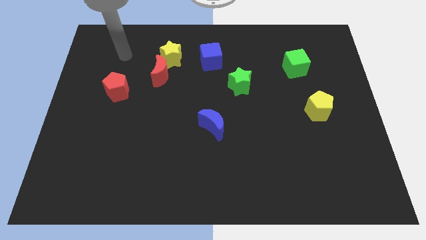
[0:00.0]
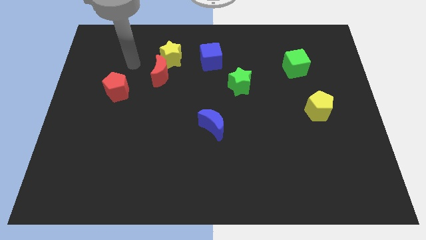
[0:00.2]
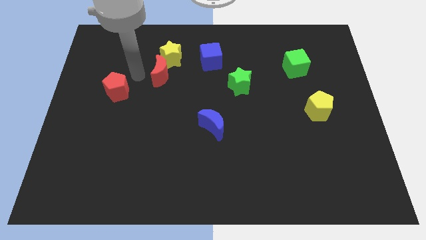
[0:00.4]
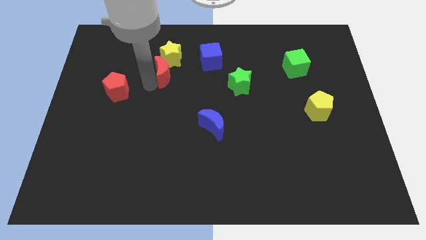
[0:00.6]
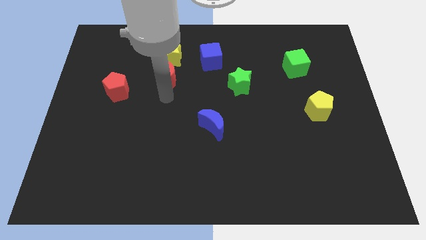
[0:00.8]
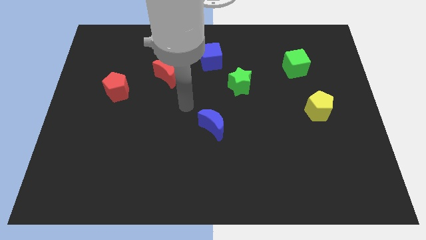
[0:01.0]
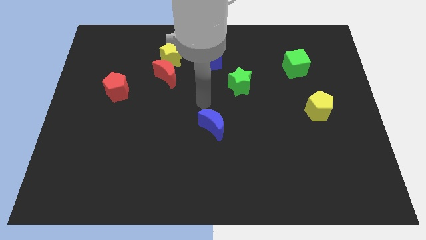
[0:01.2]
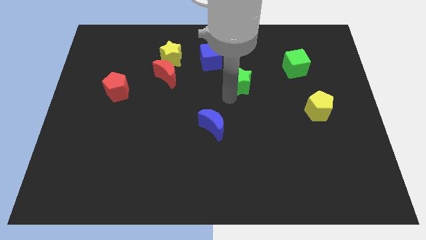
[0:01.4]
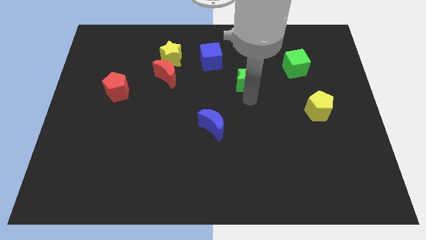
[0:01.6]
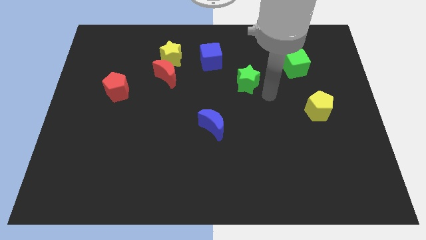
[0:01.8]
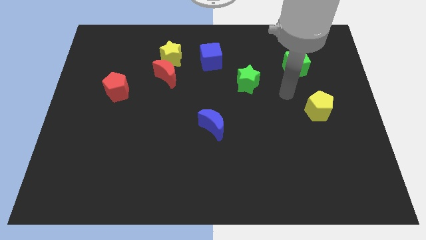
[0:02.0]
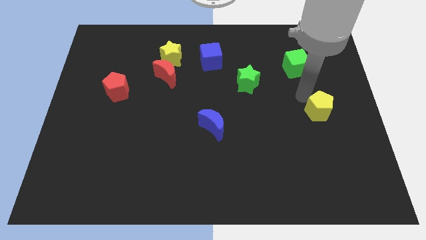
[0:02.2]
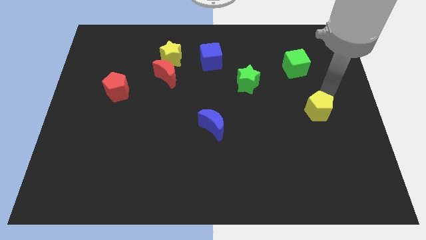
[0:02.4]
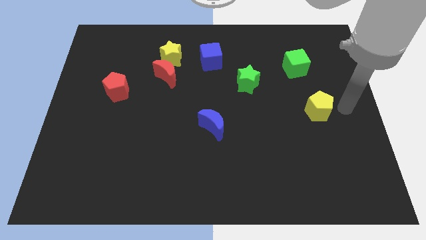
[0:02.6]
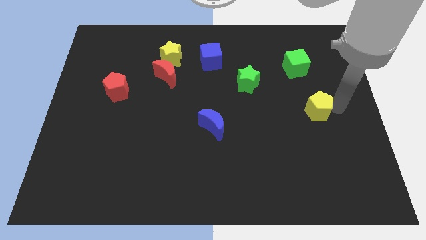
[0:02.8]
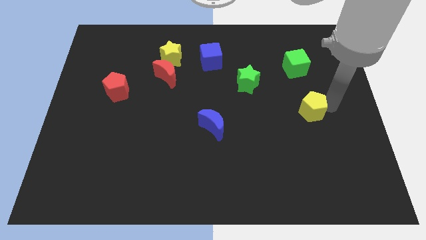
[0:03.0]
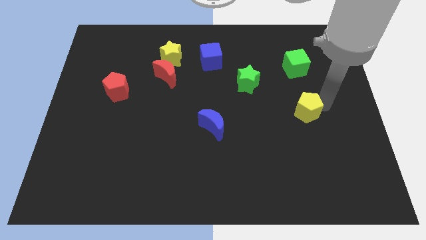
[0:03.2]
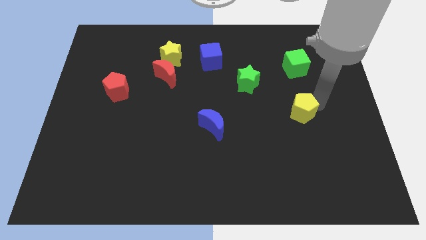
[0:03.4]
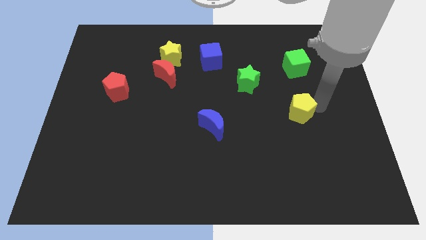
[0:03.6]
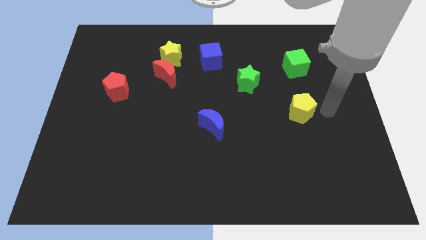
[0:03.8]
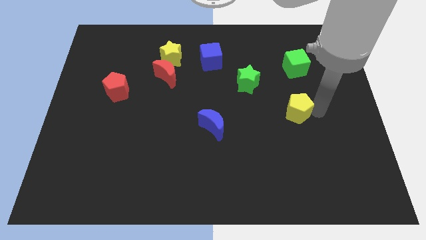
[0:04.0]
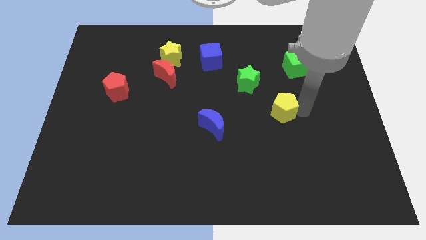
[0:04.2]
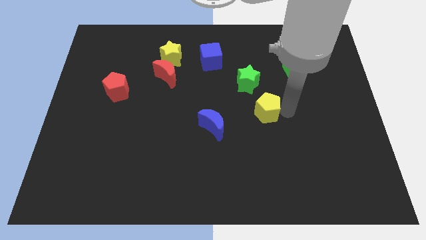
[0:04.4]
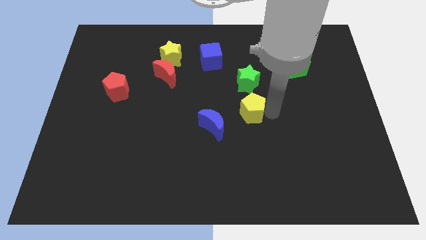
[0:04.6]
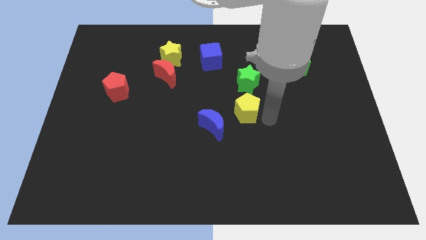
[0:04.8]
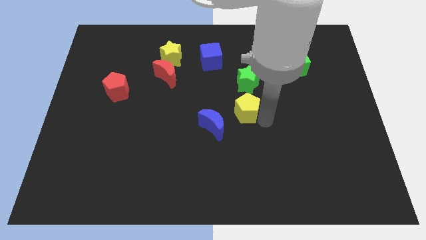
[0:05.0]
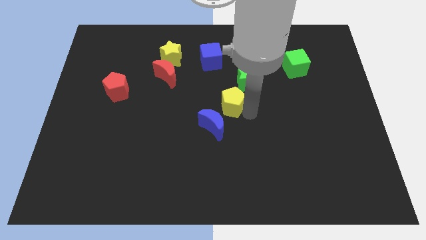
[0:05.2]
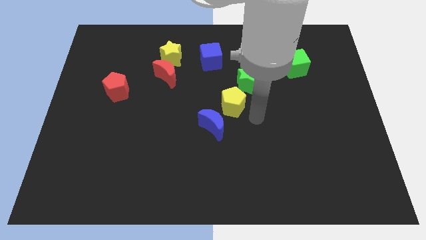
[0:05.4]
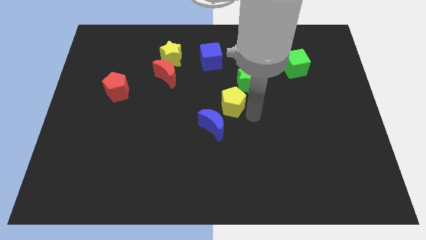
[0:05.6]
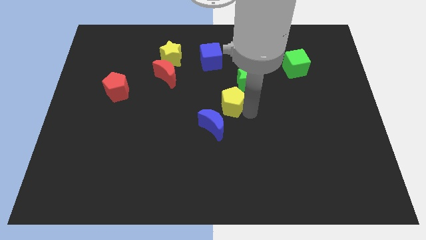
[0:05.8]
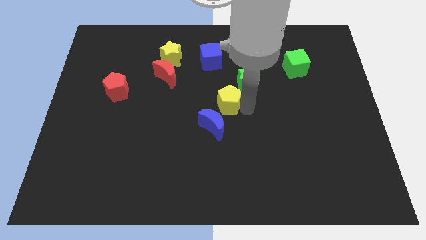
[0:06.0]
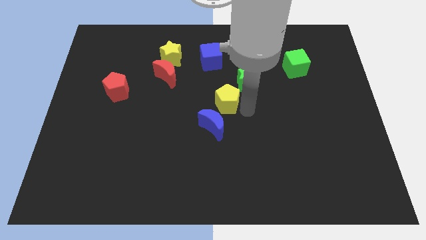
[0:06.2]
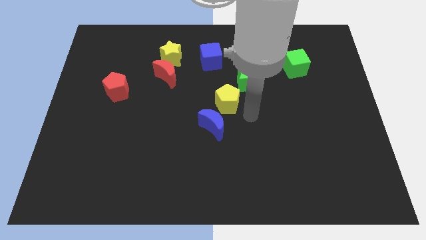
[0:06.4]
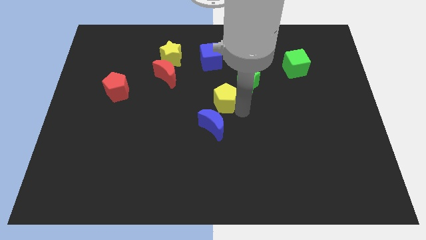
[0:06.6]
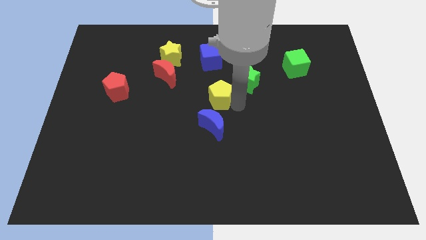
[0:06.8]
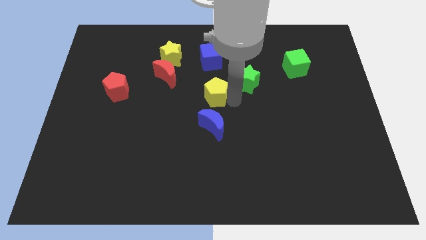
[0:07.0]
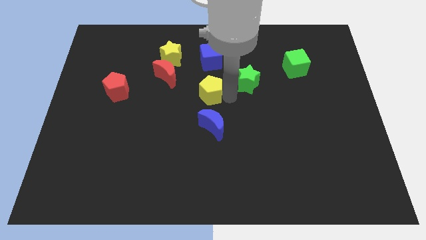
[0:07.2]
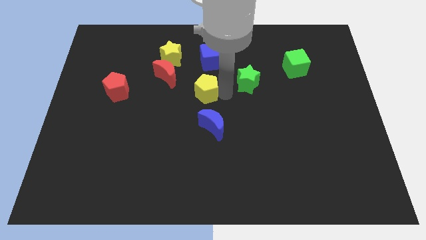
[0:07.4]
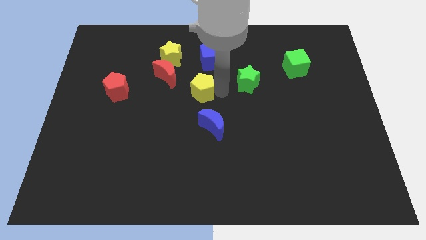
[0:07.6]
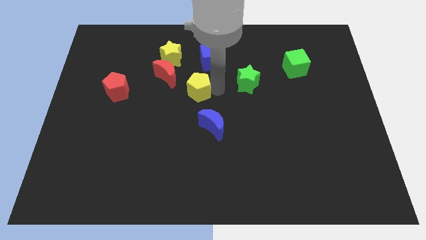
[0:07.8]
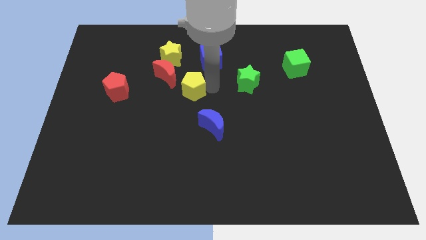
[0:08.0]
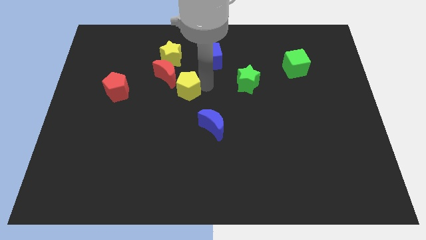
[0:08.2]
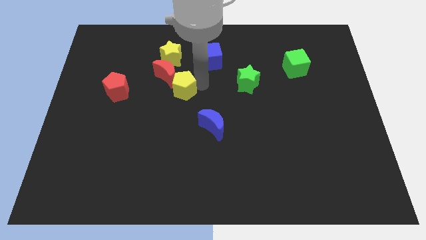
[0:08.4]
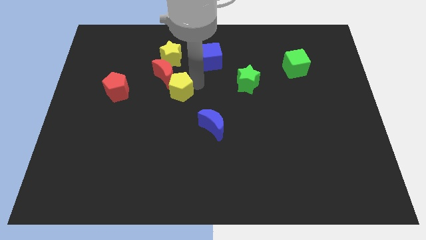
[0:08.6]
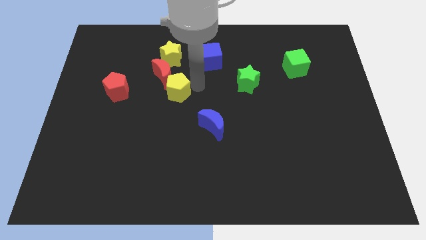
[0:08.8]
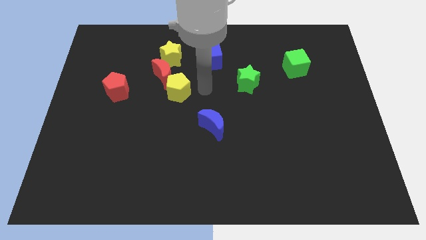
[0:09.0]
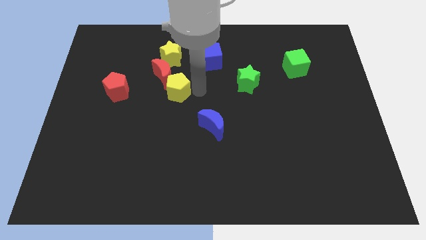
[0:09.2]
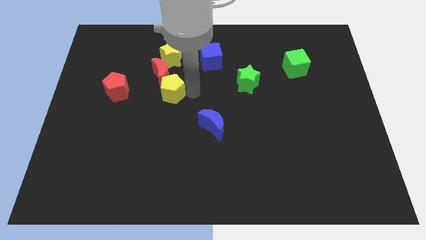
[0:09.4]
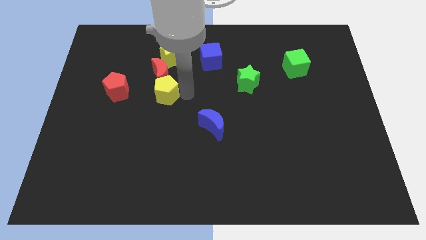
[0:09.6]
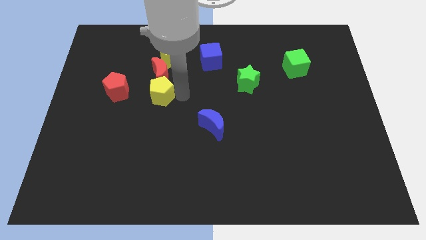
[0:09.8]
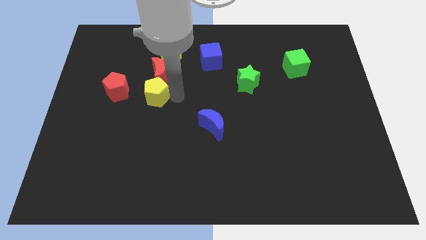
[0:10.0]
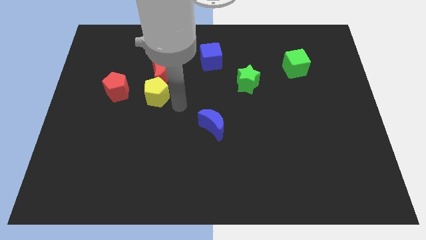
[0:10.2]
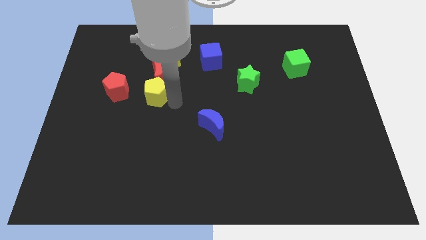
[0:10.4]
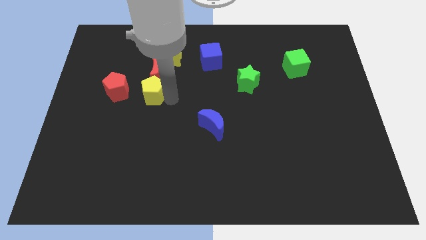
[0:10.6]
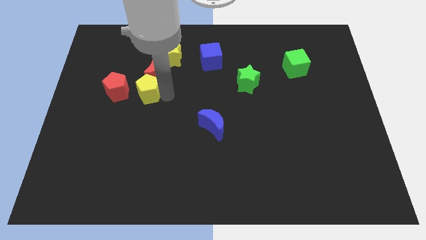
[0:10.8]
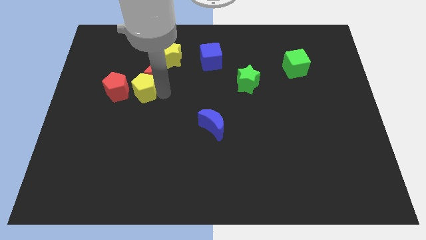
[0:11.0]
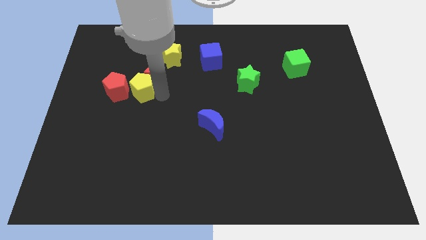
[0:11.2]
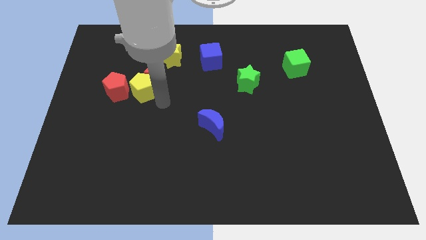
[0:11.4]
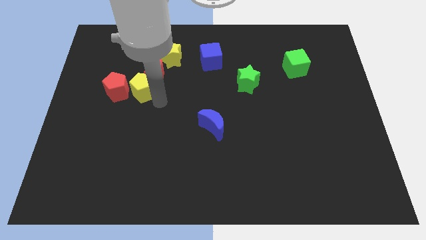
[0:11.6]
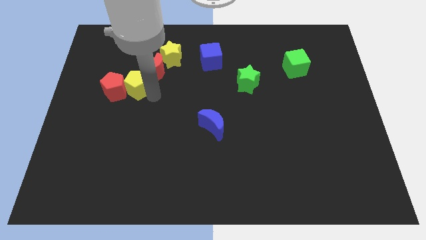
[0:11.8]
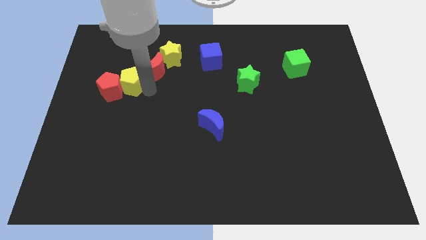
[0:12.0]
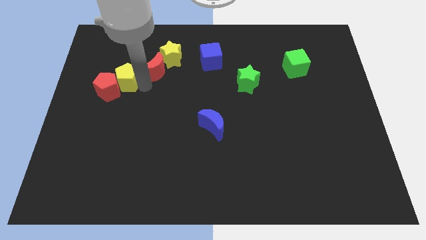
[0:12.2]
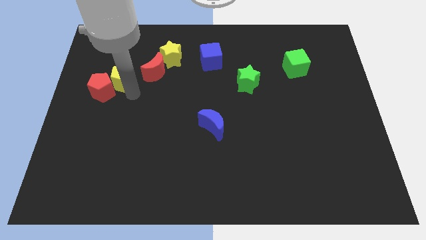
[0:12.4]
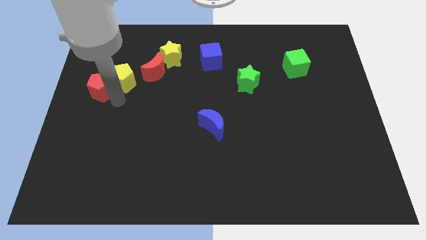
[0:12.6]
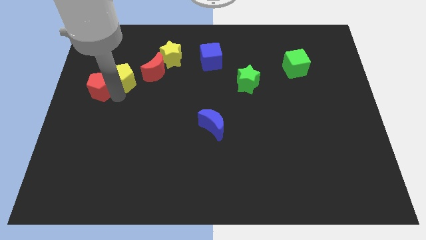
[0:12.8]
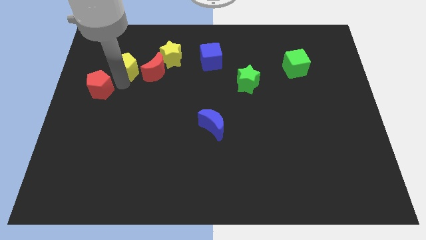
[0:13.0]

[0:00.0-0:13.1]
push the yellow pentagon left of the yellow star

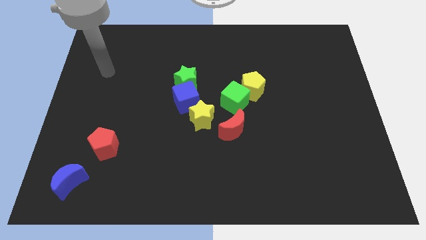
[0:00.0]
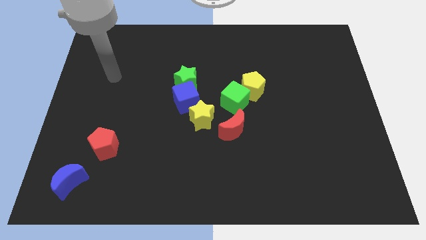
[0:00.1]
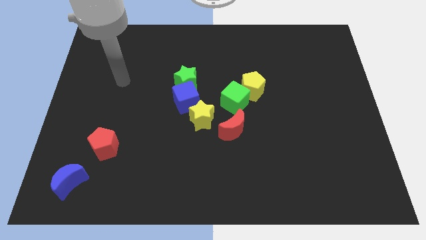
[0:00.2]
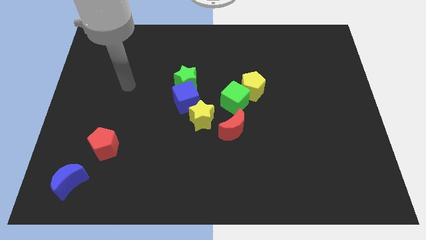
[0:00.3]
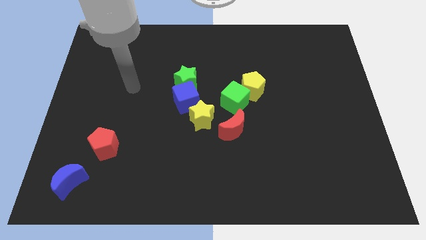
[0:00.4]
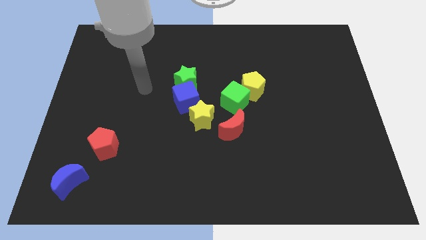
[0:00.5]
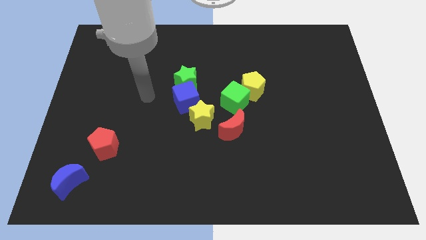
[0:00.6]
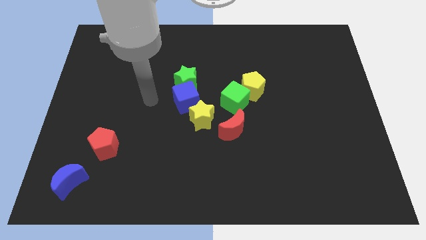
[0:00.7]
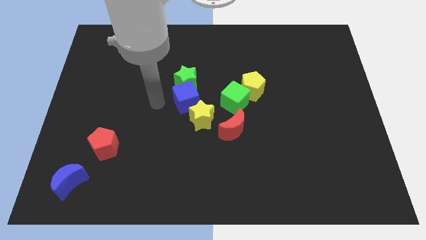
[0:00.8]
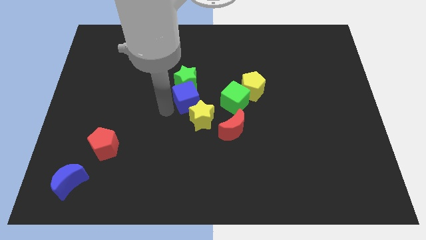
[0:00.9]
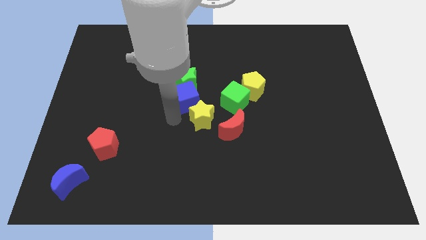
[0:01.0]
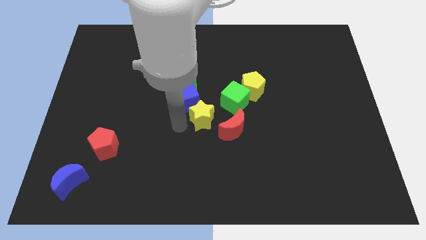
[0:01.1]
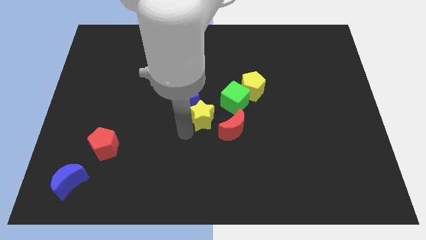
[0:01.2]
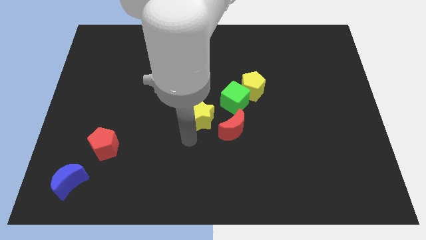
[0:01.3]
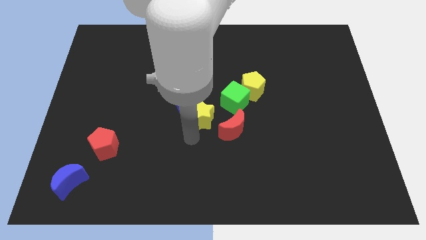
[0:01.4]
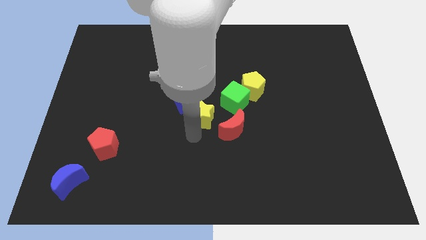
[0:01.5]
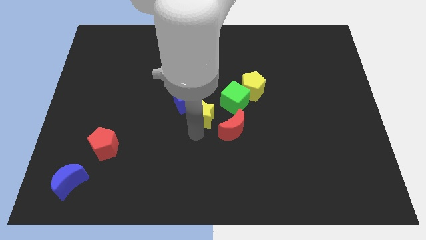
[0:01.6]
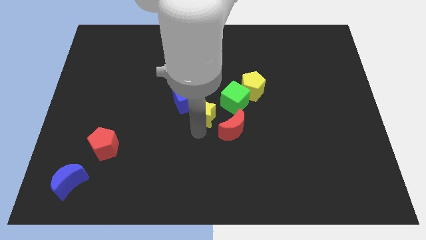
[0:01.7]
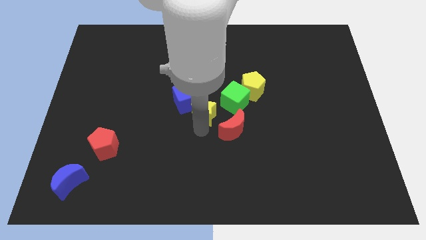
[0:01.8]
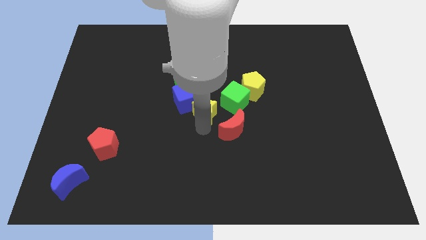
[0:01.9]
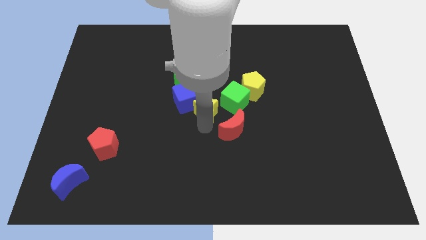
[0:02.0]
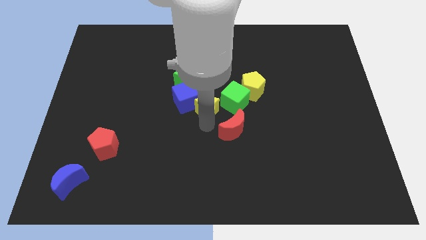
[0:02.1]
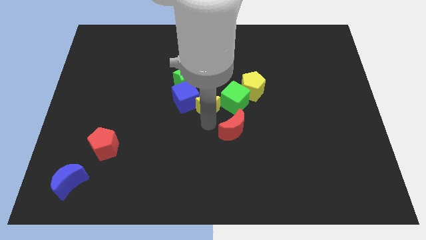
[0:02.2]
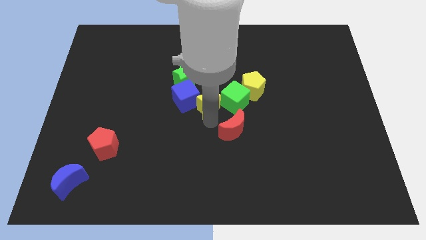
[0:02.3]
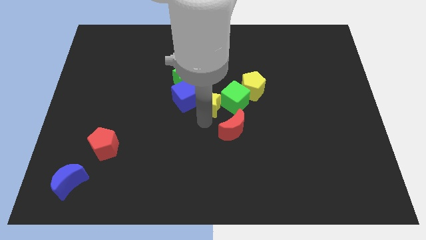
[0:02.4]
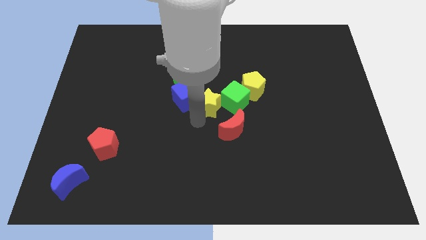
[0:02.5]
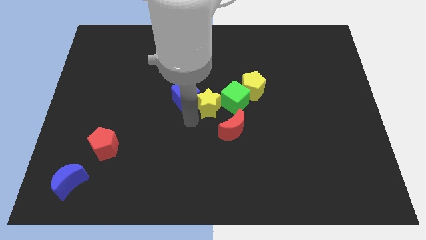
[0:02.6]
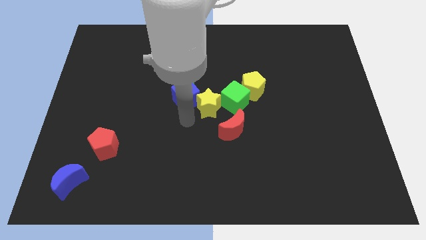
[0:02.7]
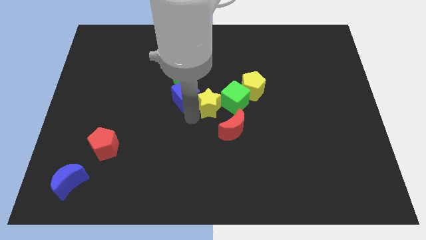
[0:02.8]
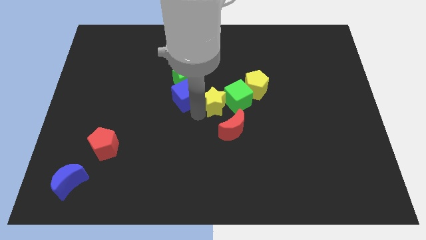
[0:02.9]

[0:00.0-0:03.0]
move the yellow star to the top side of the red moon
